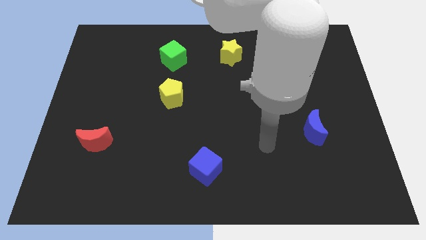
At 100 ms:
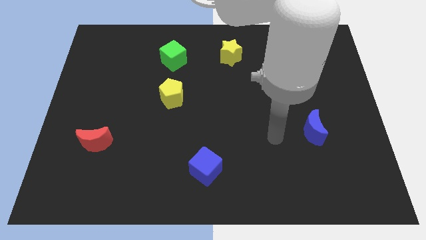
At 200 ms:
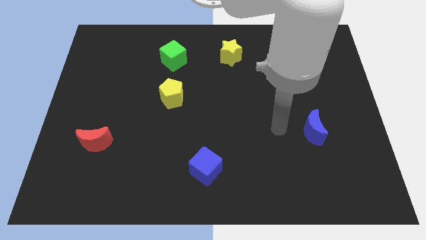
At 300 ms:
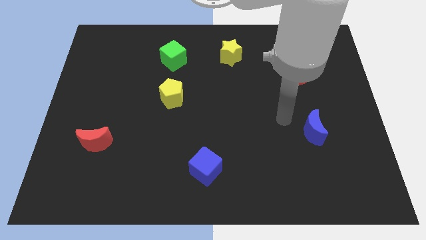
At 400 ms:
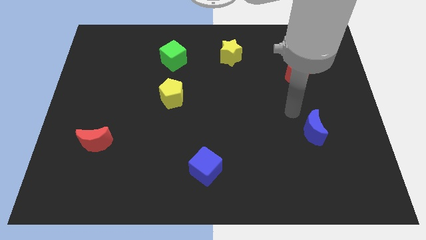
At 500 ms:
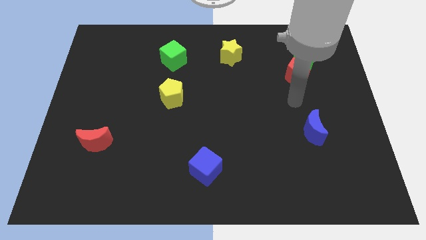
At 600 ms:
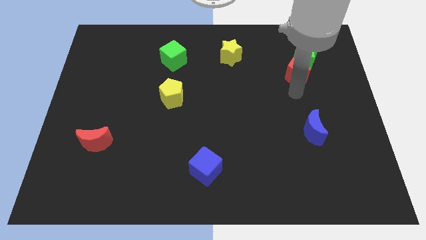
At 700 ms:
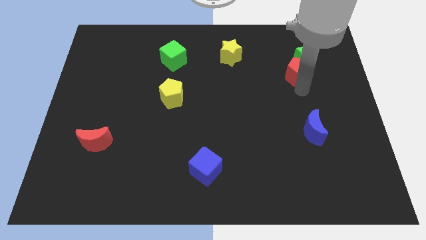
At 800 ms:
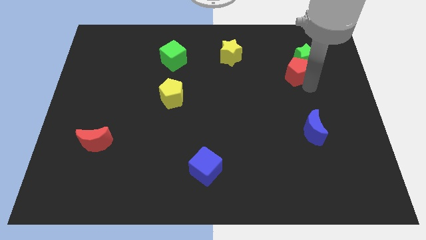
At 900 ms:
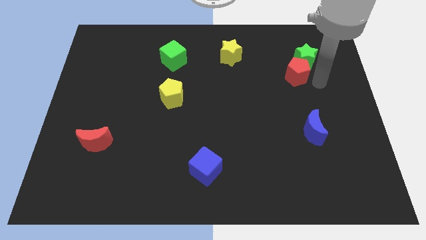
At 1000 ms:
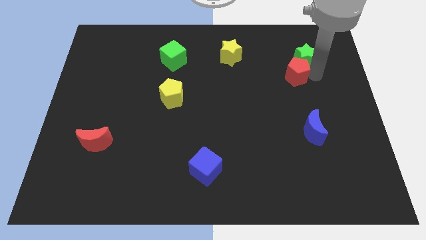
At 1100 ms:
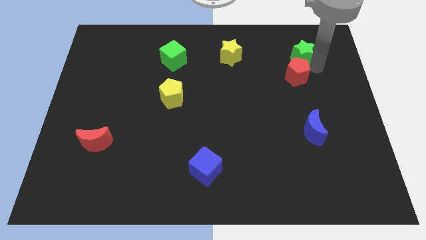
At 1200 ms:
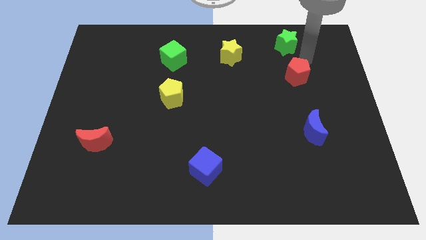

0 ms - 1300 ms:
separate the red pentagon from the green star

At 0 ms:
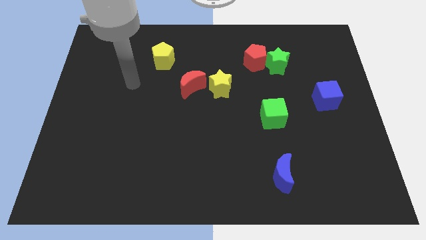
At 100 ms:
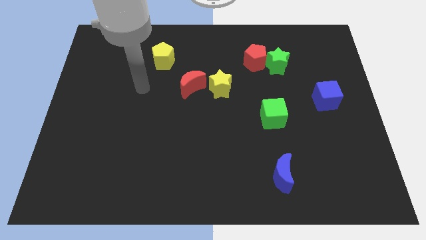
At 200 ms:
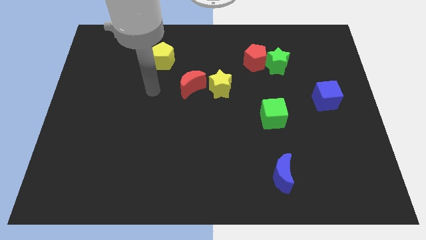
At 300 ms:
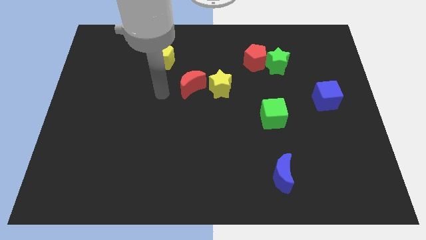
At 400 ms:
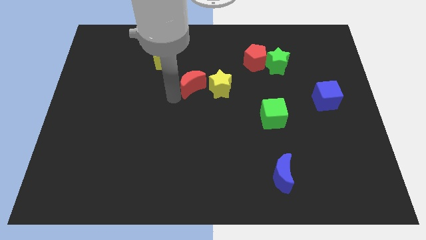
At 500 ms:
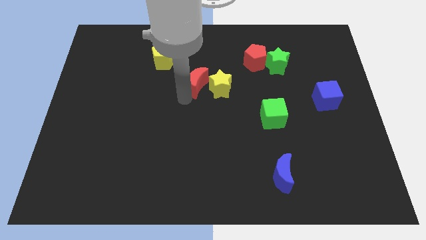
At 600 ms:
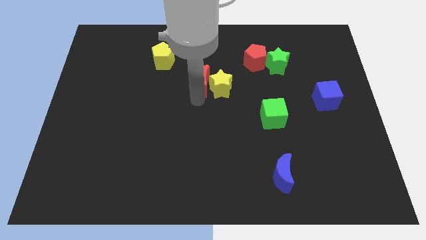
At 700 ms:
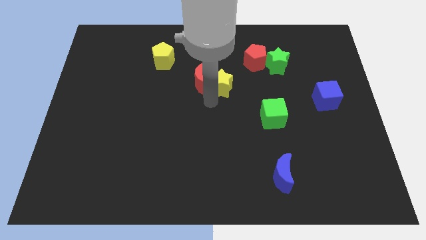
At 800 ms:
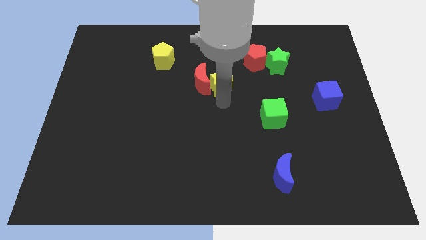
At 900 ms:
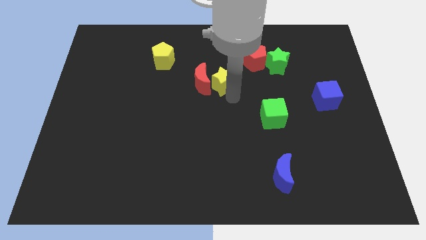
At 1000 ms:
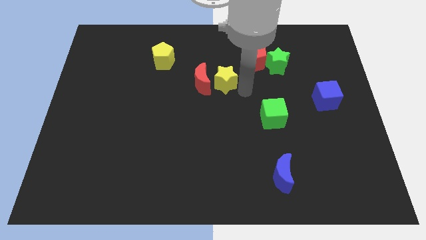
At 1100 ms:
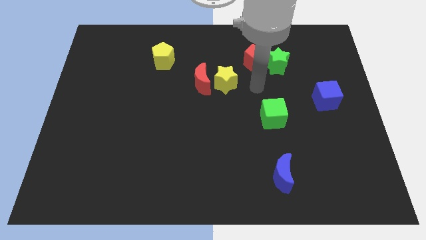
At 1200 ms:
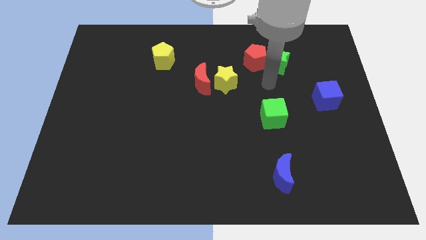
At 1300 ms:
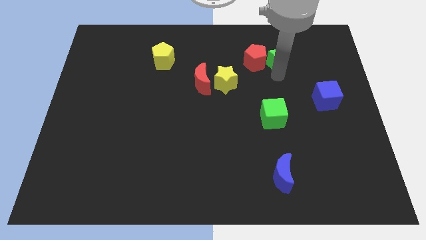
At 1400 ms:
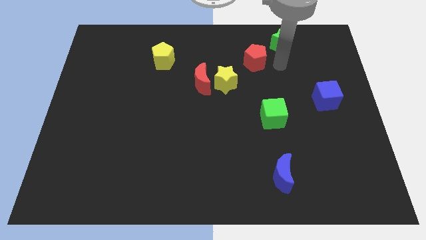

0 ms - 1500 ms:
move the red pentagon away from the green star

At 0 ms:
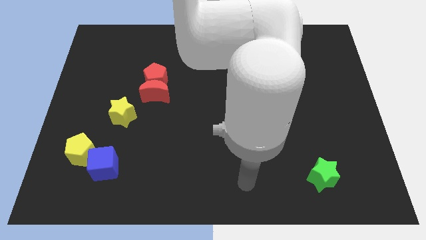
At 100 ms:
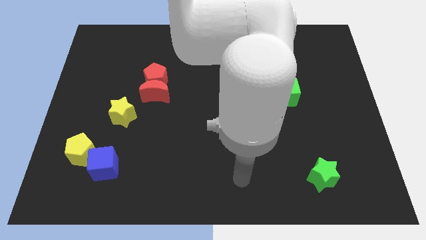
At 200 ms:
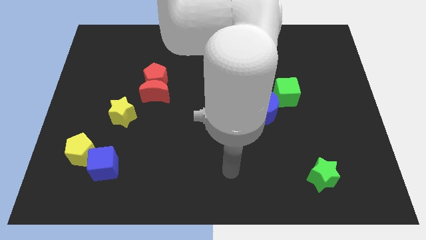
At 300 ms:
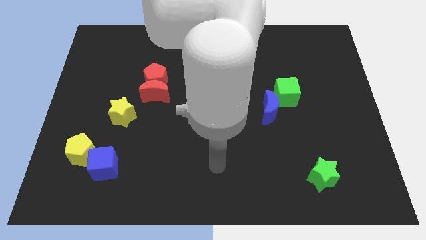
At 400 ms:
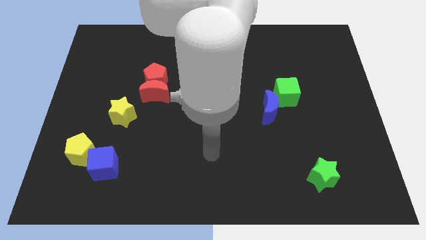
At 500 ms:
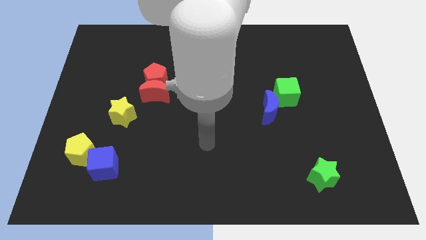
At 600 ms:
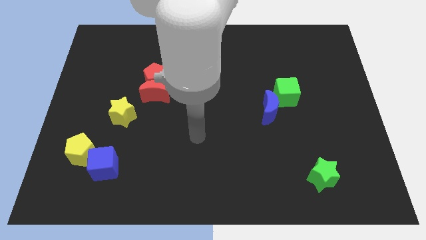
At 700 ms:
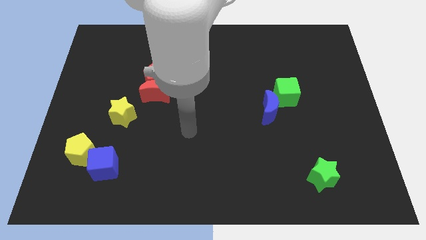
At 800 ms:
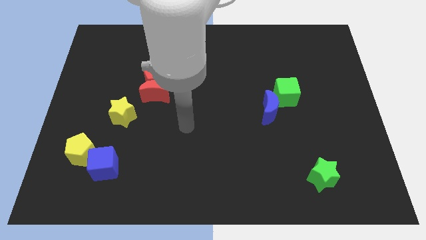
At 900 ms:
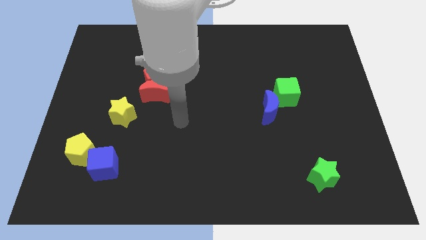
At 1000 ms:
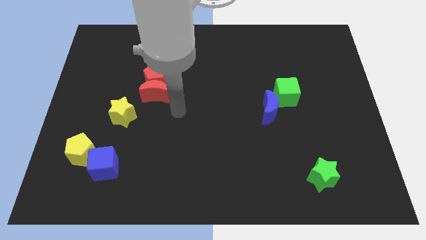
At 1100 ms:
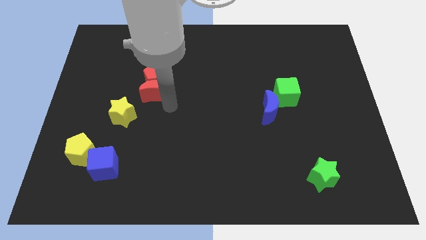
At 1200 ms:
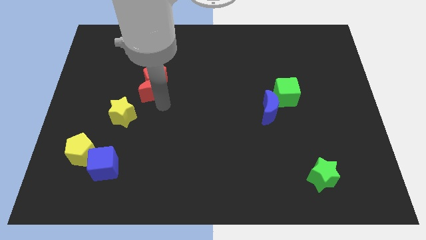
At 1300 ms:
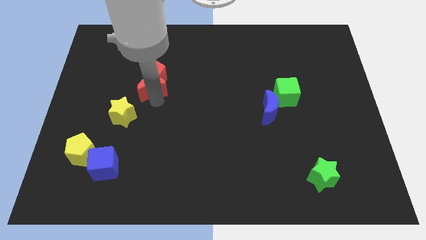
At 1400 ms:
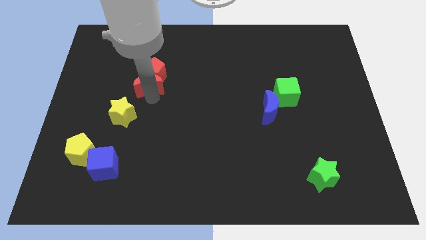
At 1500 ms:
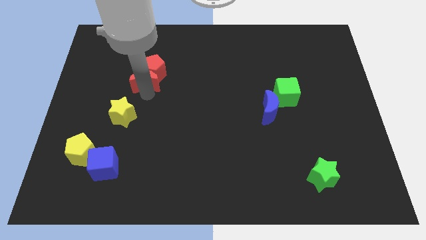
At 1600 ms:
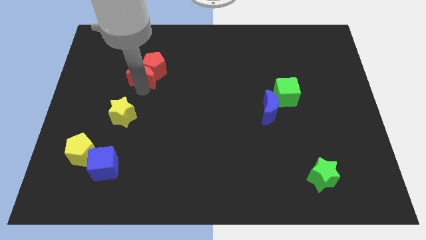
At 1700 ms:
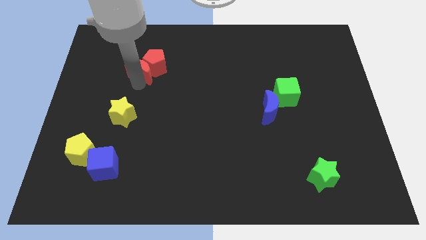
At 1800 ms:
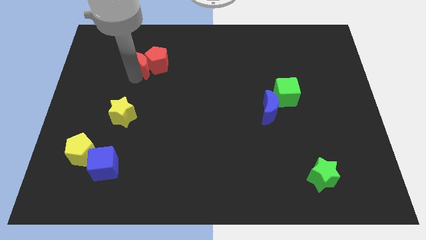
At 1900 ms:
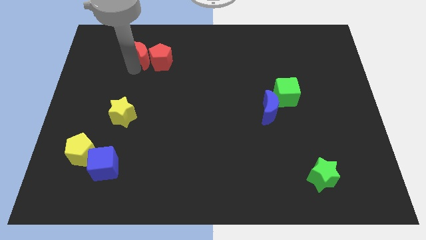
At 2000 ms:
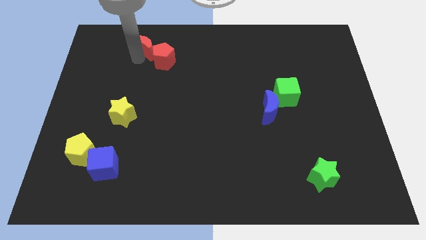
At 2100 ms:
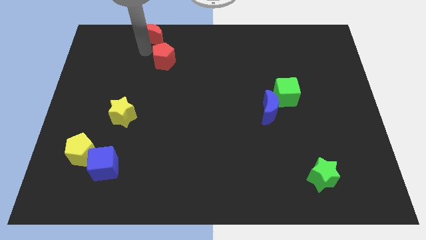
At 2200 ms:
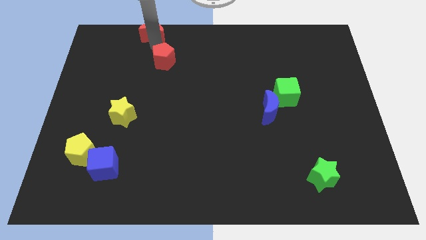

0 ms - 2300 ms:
pull the red pentagon apart from the red moon

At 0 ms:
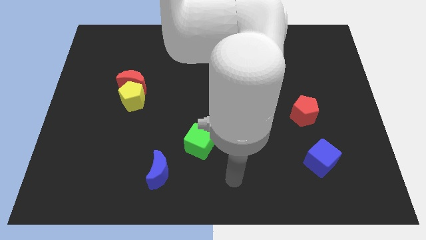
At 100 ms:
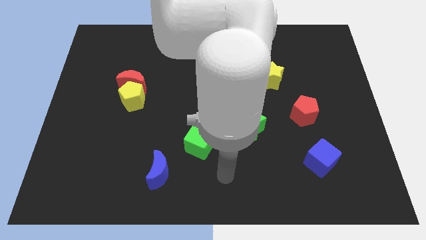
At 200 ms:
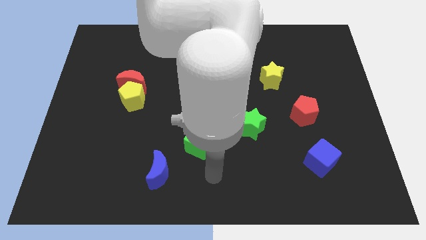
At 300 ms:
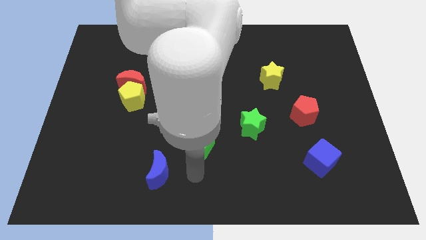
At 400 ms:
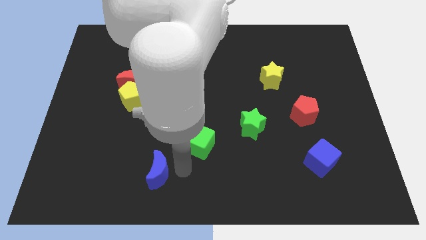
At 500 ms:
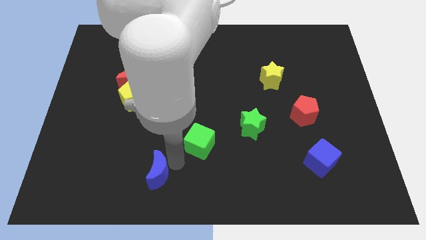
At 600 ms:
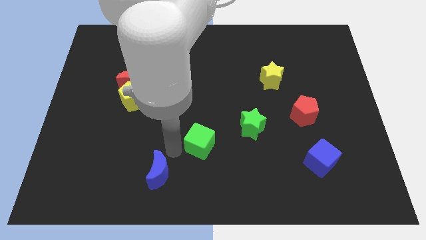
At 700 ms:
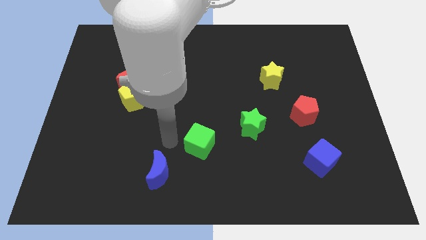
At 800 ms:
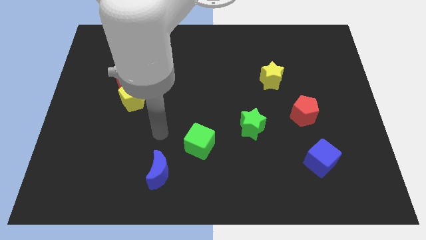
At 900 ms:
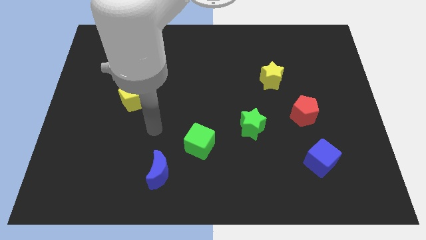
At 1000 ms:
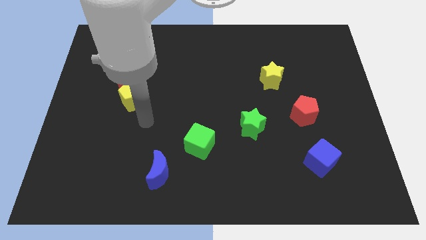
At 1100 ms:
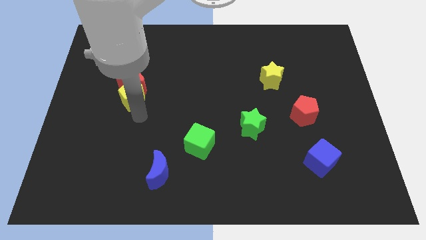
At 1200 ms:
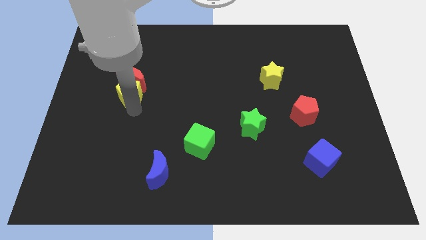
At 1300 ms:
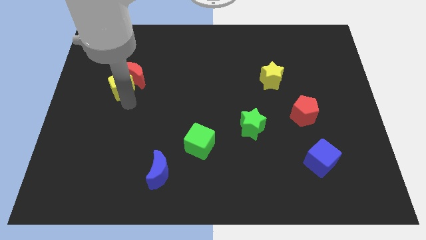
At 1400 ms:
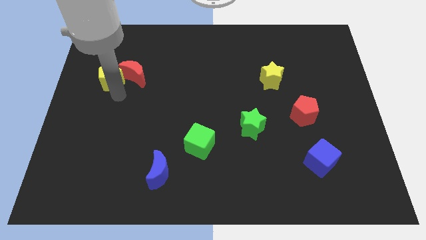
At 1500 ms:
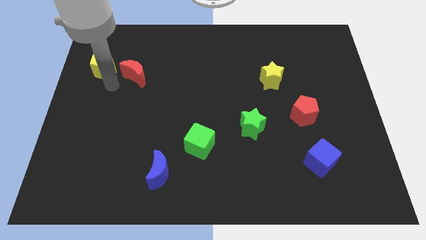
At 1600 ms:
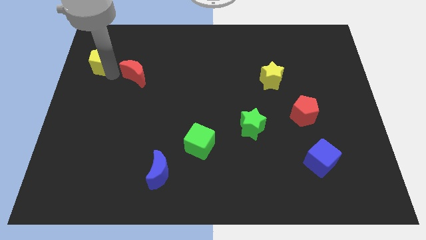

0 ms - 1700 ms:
pull the red moon apart from the yellow pentagon

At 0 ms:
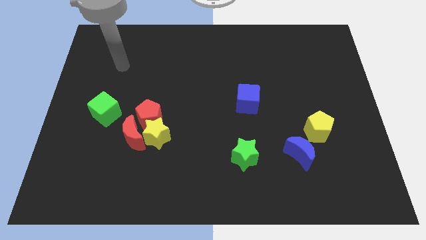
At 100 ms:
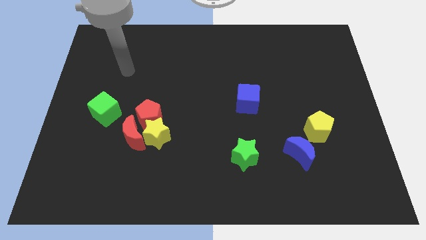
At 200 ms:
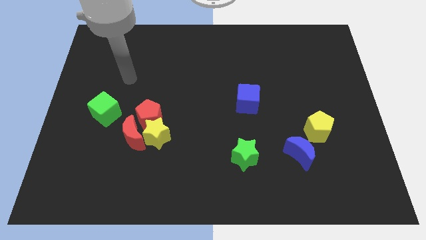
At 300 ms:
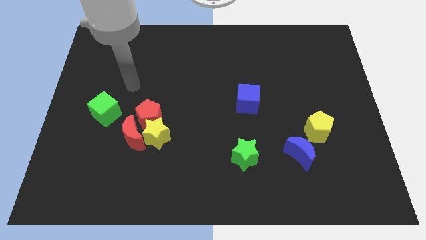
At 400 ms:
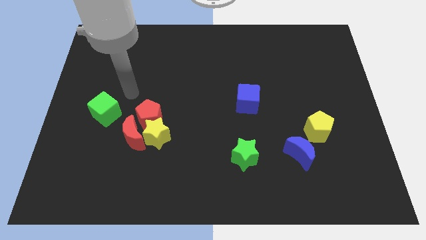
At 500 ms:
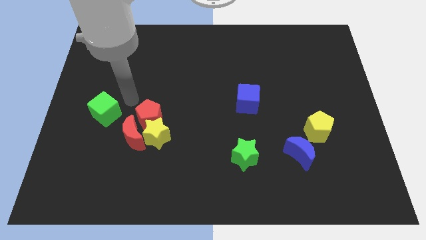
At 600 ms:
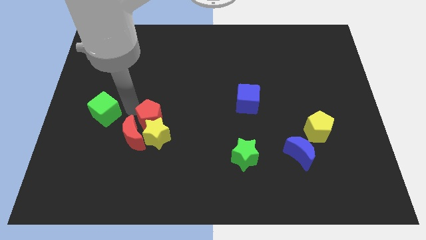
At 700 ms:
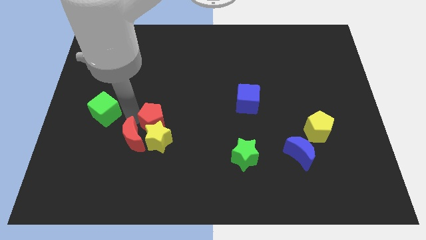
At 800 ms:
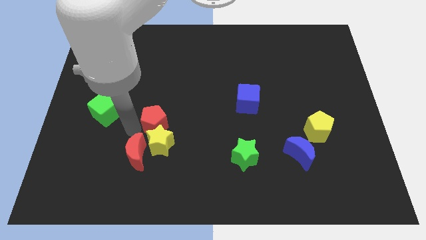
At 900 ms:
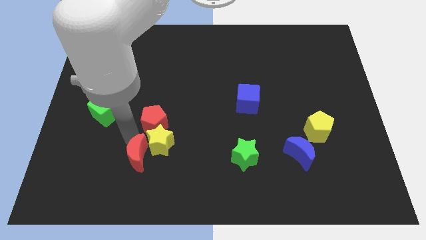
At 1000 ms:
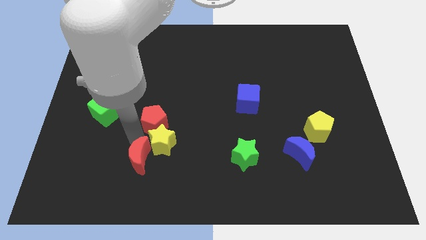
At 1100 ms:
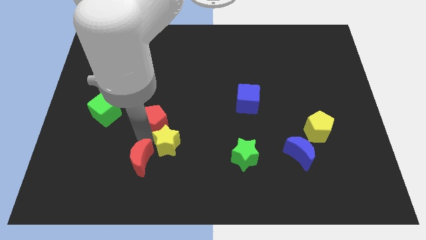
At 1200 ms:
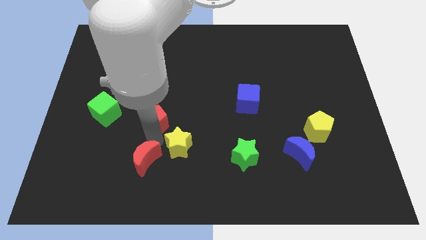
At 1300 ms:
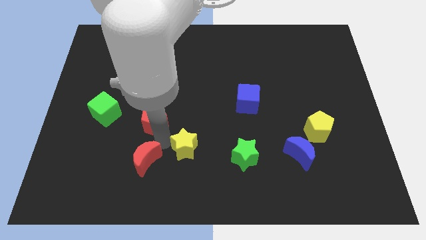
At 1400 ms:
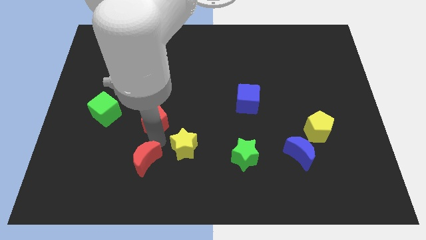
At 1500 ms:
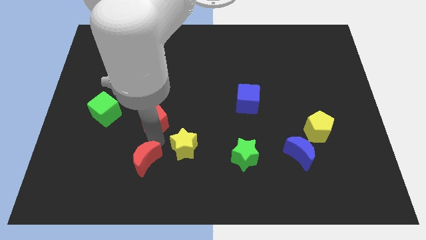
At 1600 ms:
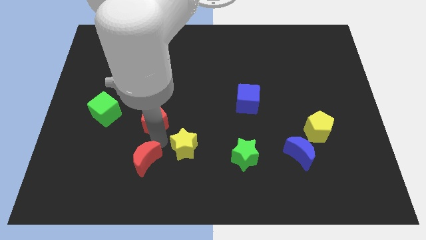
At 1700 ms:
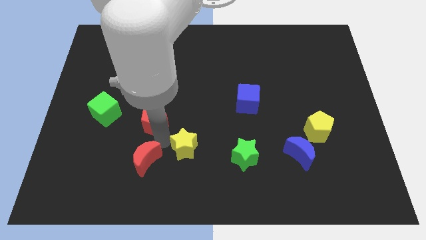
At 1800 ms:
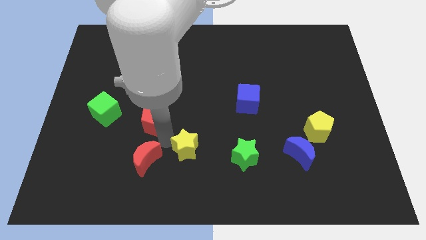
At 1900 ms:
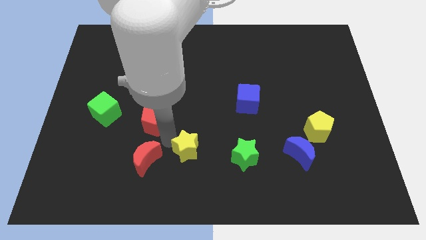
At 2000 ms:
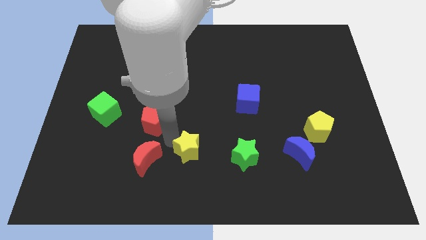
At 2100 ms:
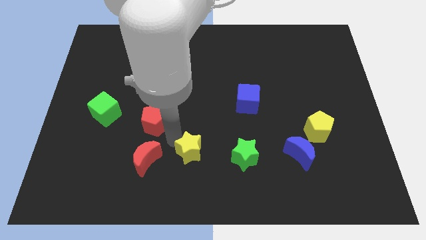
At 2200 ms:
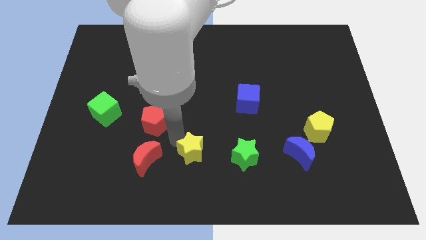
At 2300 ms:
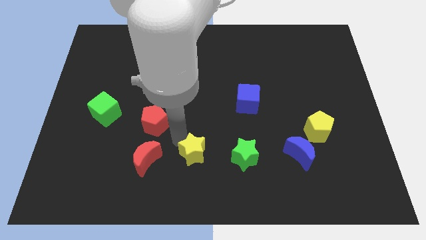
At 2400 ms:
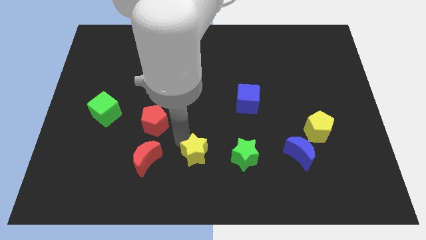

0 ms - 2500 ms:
separate the yellow star from the red pentagon and red moon

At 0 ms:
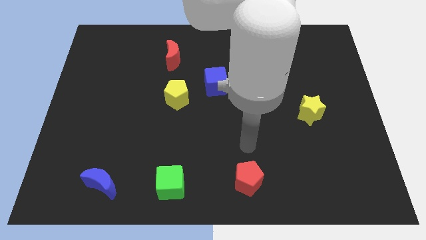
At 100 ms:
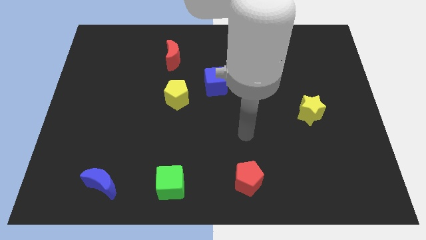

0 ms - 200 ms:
separate the yellow pentagon from the blue cube
